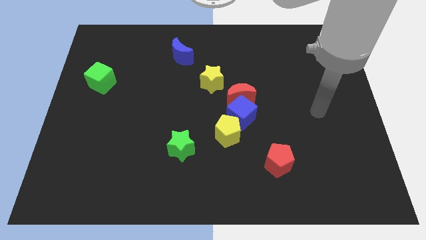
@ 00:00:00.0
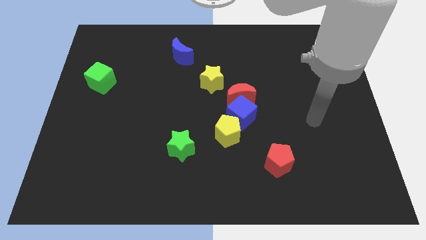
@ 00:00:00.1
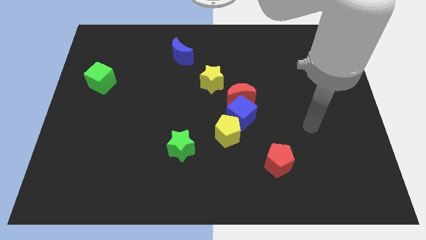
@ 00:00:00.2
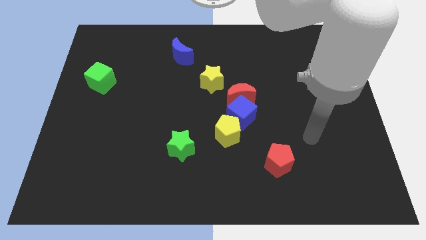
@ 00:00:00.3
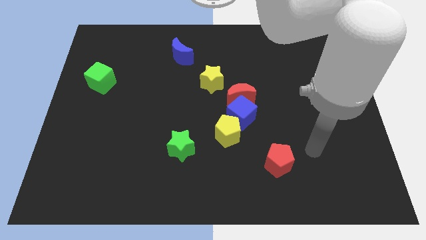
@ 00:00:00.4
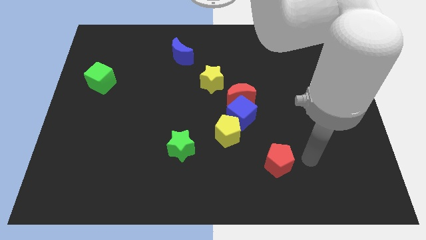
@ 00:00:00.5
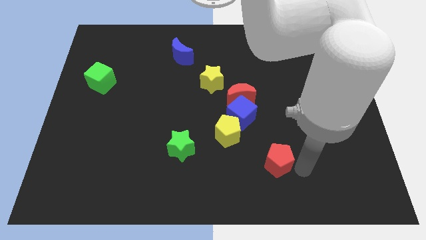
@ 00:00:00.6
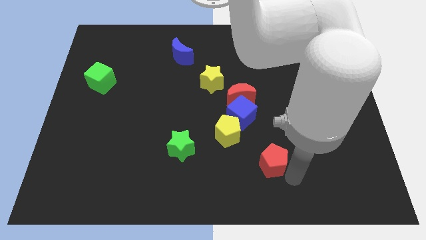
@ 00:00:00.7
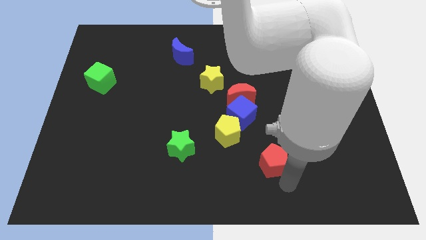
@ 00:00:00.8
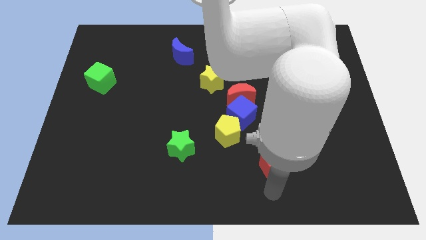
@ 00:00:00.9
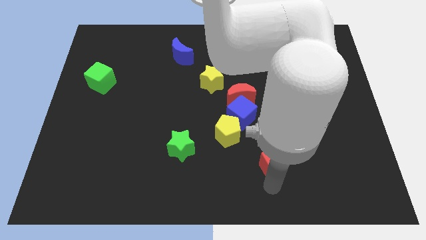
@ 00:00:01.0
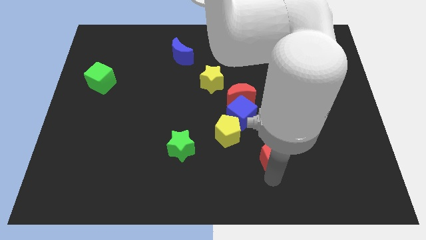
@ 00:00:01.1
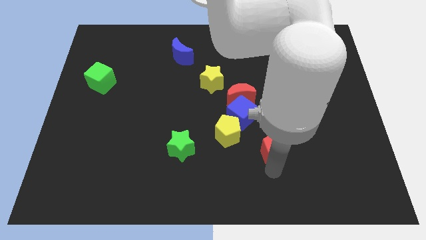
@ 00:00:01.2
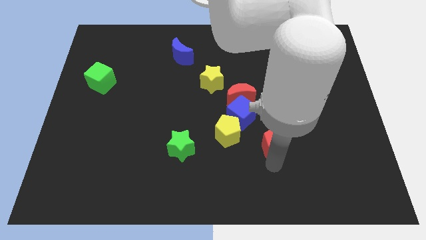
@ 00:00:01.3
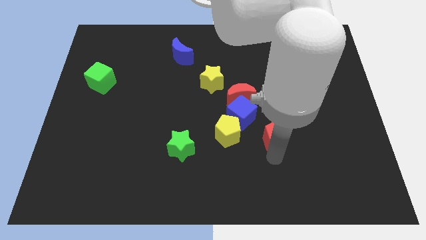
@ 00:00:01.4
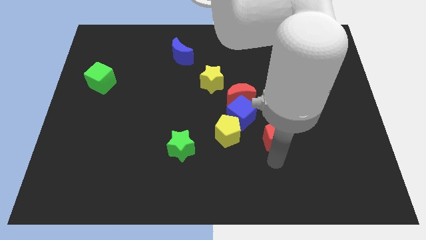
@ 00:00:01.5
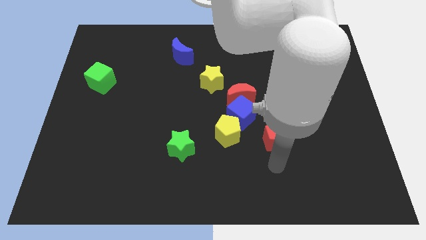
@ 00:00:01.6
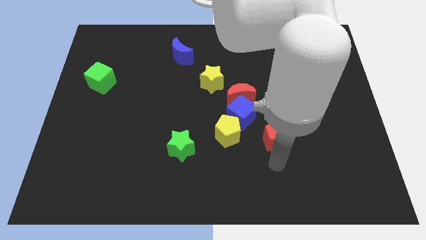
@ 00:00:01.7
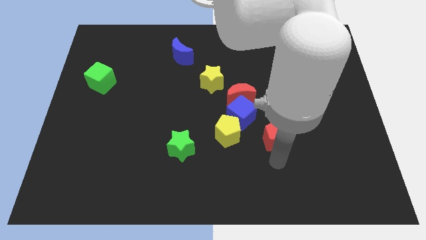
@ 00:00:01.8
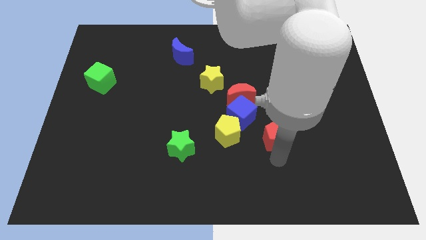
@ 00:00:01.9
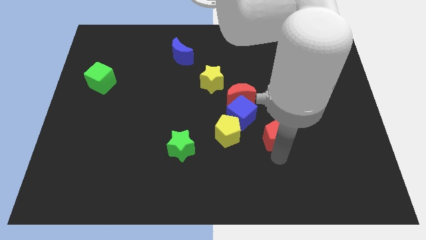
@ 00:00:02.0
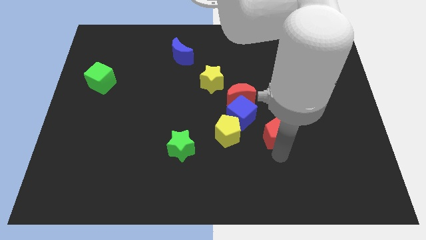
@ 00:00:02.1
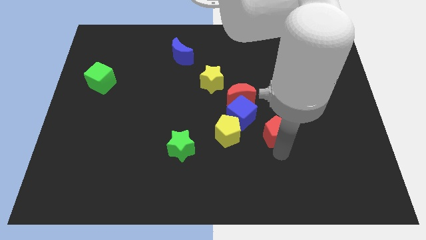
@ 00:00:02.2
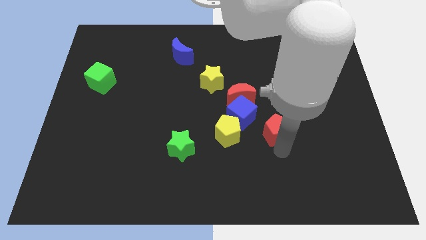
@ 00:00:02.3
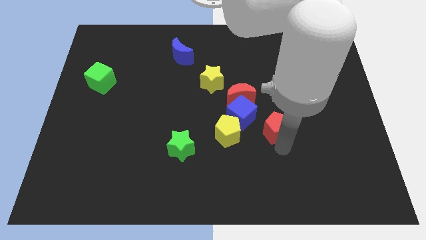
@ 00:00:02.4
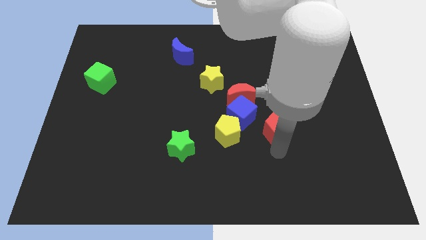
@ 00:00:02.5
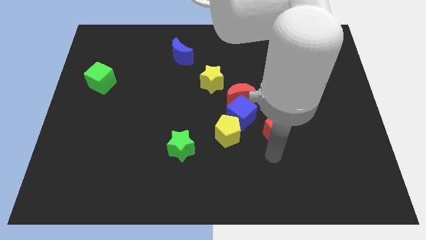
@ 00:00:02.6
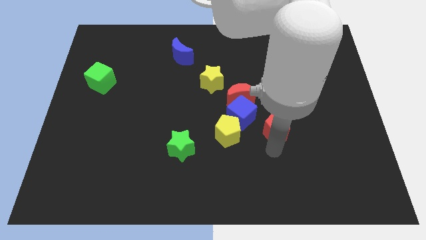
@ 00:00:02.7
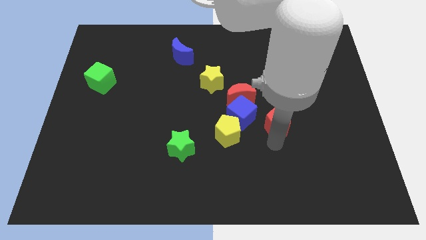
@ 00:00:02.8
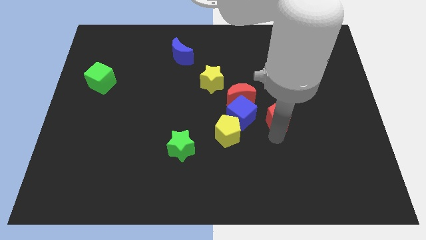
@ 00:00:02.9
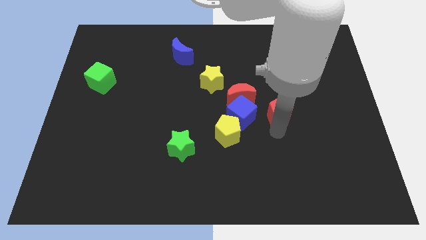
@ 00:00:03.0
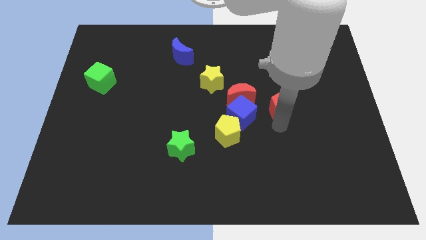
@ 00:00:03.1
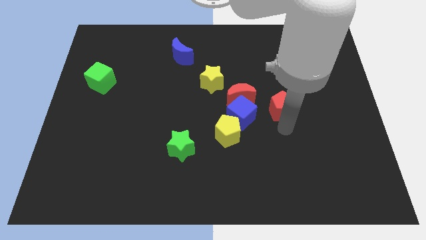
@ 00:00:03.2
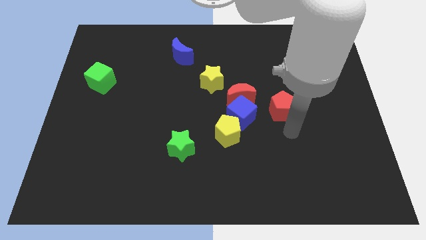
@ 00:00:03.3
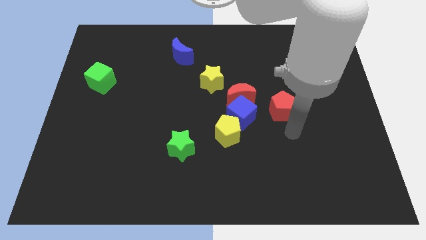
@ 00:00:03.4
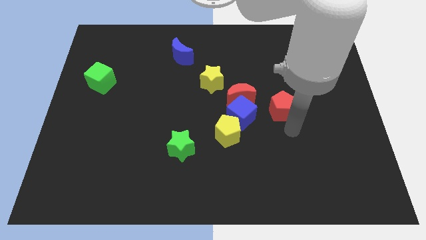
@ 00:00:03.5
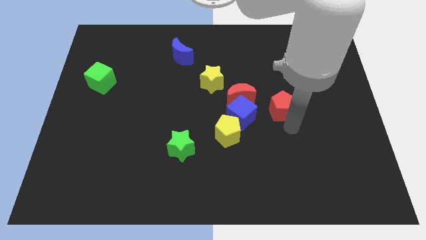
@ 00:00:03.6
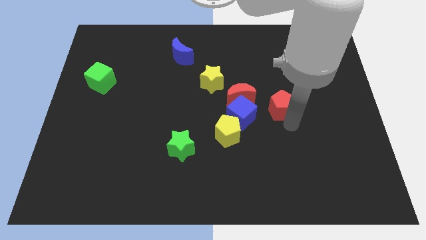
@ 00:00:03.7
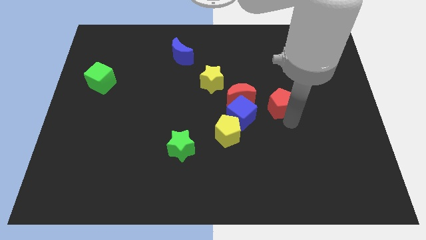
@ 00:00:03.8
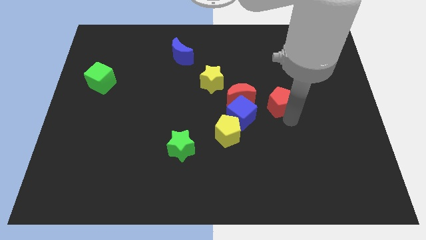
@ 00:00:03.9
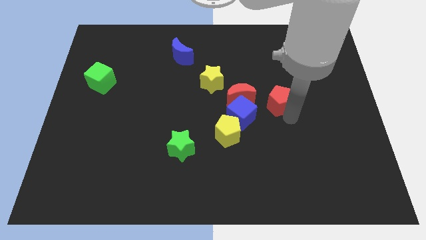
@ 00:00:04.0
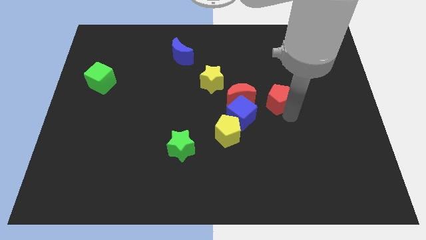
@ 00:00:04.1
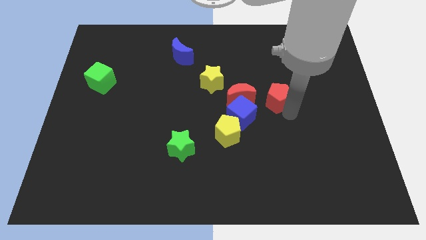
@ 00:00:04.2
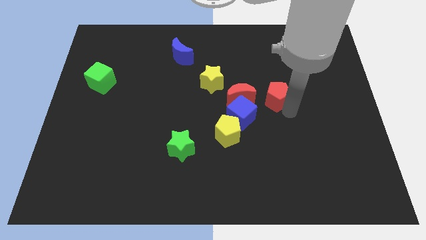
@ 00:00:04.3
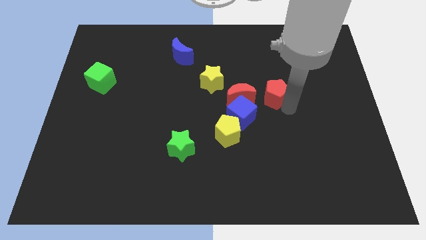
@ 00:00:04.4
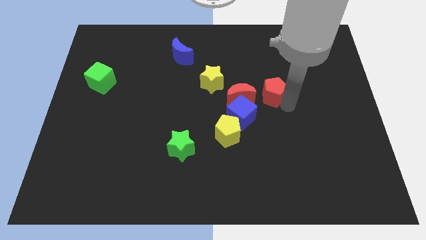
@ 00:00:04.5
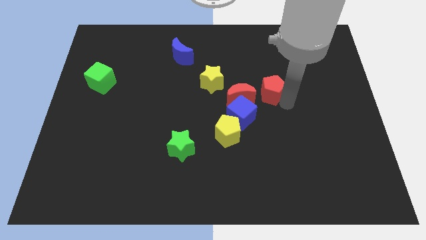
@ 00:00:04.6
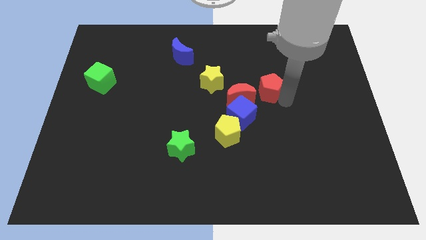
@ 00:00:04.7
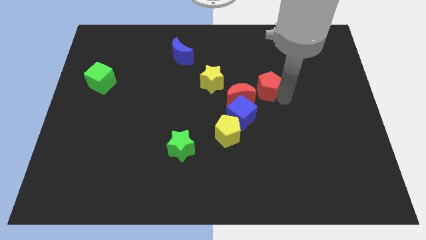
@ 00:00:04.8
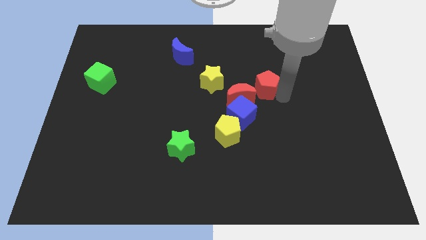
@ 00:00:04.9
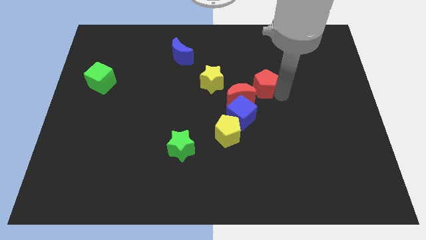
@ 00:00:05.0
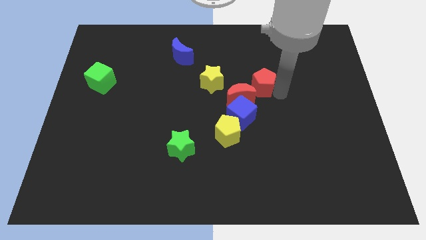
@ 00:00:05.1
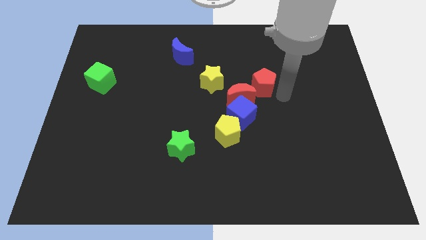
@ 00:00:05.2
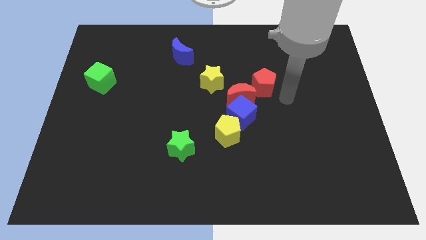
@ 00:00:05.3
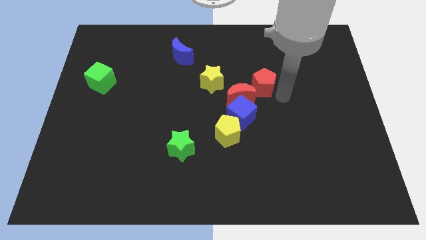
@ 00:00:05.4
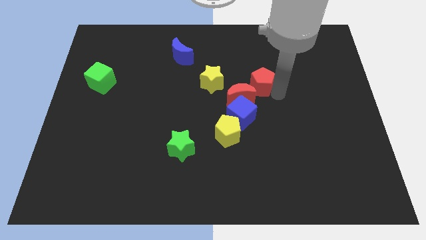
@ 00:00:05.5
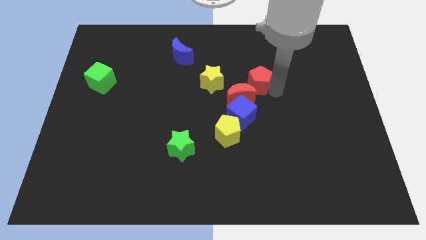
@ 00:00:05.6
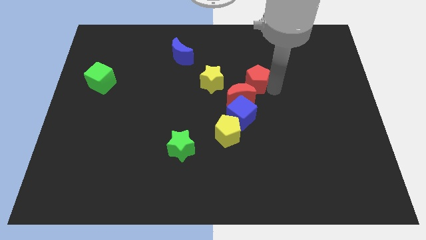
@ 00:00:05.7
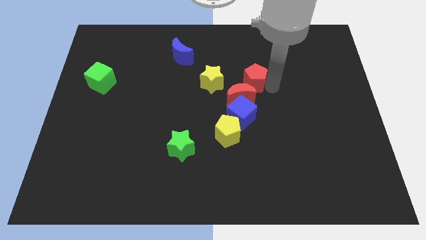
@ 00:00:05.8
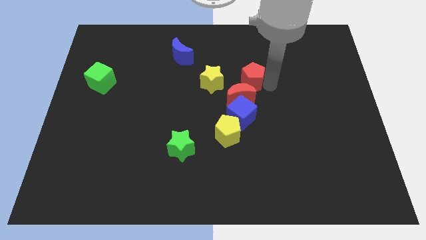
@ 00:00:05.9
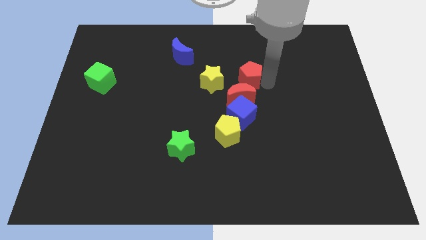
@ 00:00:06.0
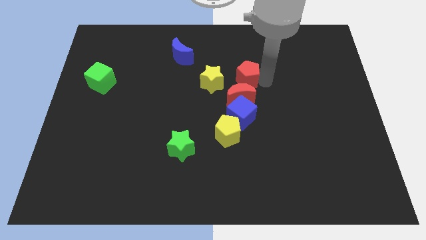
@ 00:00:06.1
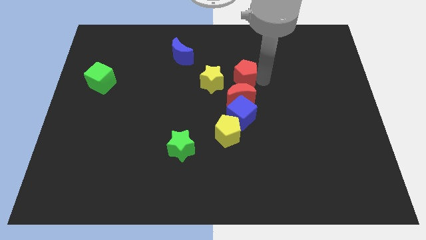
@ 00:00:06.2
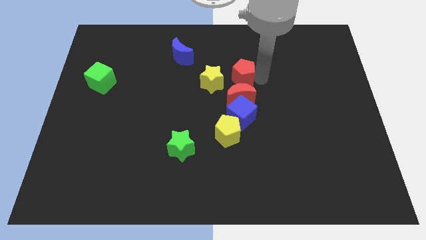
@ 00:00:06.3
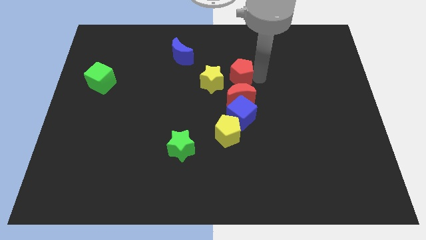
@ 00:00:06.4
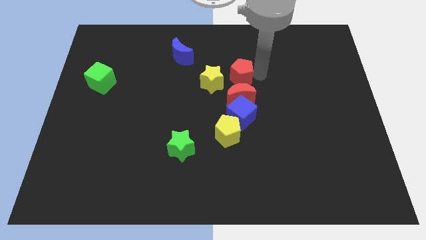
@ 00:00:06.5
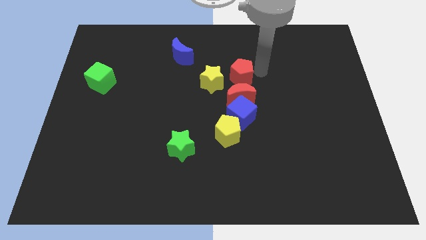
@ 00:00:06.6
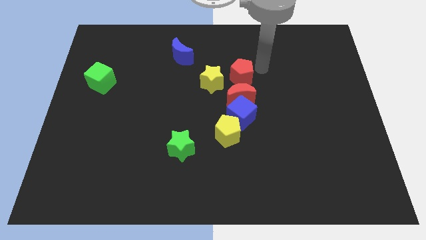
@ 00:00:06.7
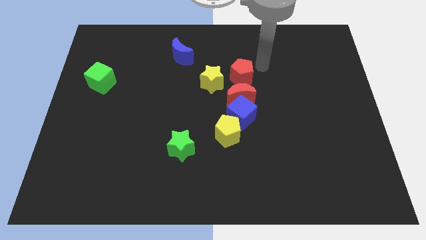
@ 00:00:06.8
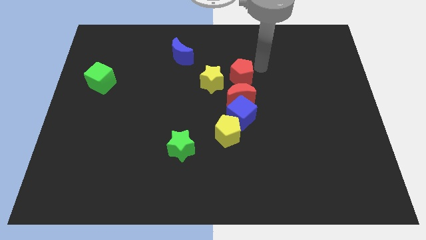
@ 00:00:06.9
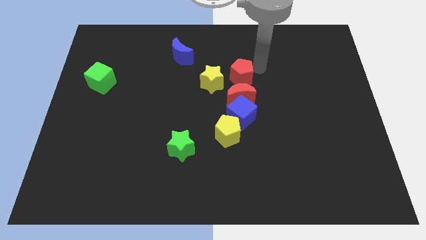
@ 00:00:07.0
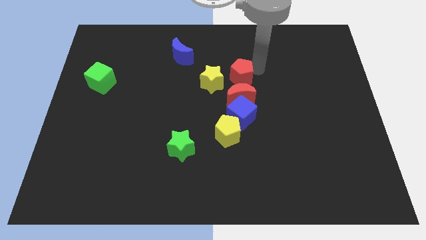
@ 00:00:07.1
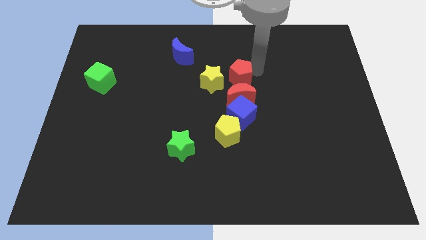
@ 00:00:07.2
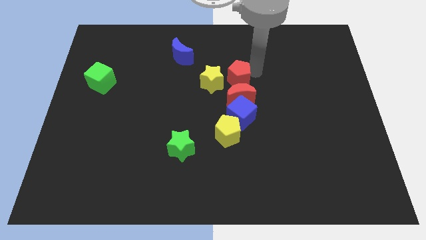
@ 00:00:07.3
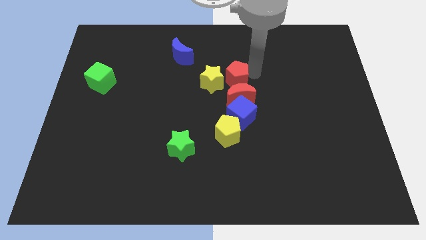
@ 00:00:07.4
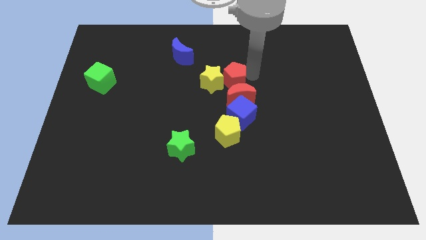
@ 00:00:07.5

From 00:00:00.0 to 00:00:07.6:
slide the red pentagon close to the yellow star

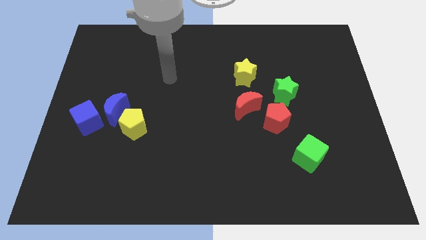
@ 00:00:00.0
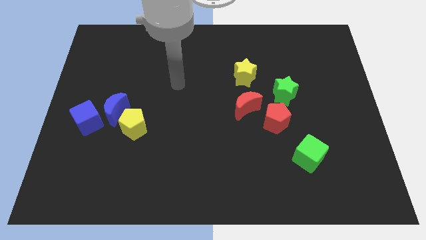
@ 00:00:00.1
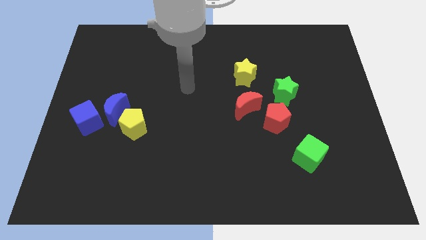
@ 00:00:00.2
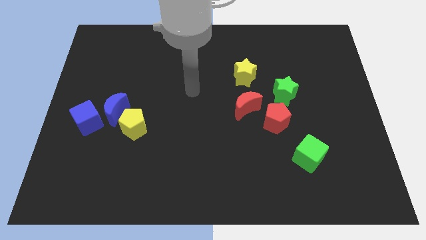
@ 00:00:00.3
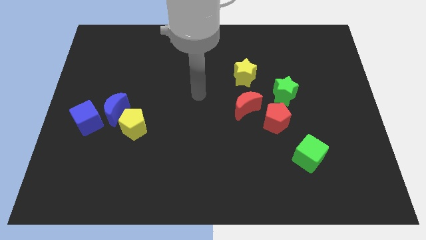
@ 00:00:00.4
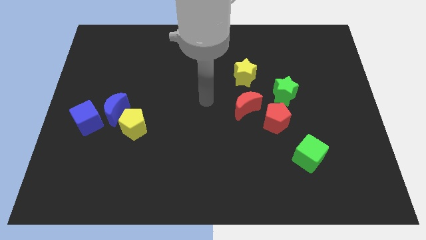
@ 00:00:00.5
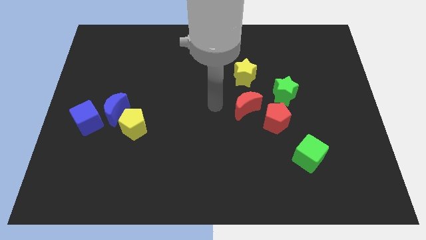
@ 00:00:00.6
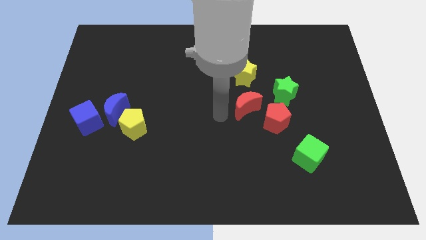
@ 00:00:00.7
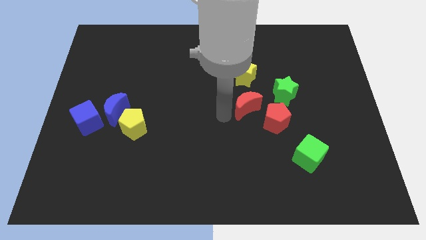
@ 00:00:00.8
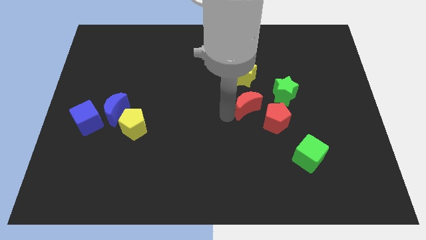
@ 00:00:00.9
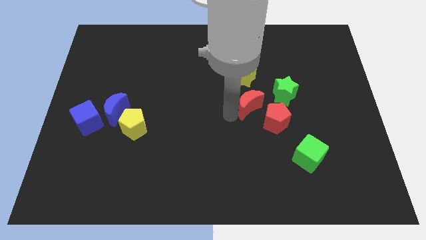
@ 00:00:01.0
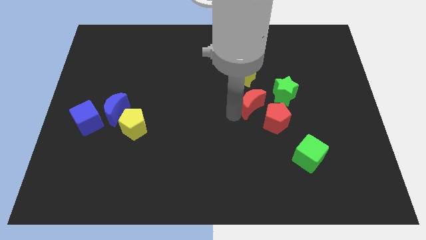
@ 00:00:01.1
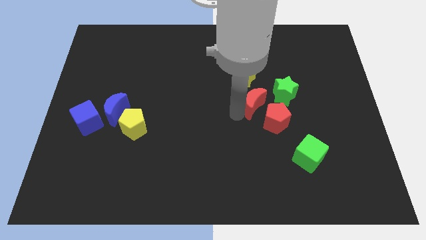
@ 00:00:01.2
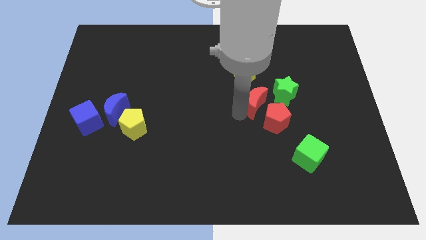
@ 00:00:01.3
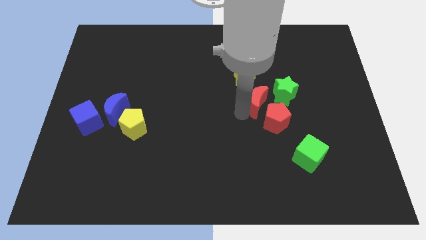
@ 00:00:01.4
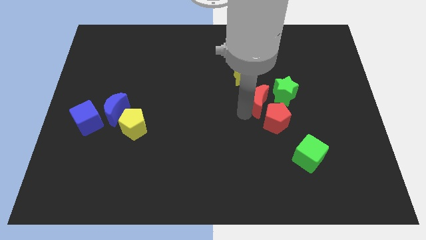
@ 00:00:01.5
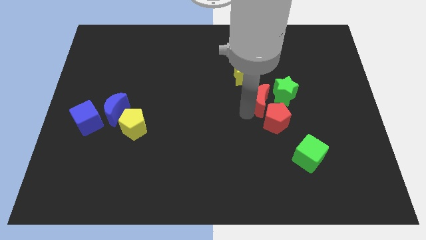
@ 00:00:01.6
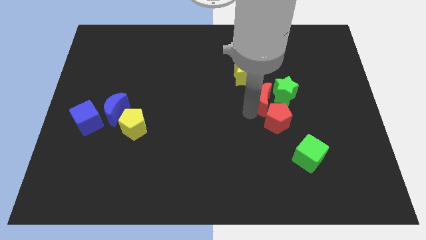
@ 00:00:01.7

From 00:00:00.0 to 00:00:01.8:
move the red moon towards the green star
